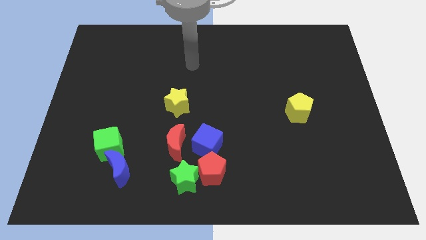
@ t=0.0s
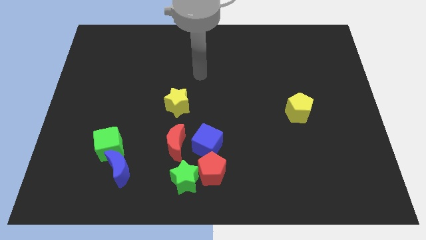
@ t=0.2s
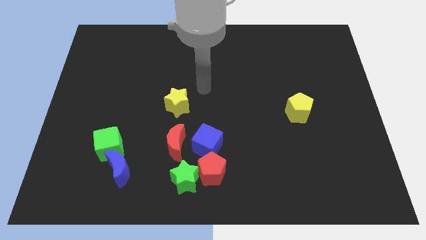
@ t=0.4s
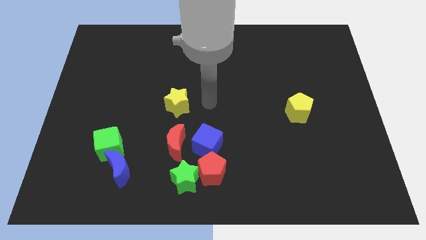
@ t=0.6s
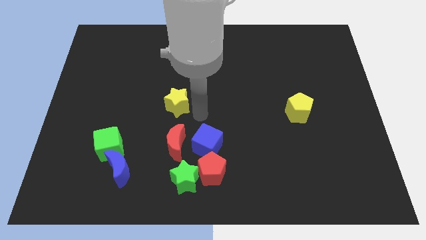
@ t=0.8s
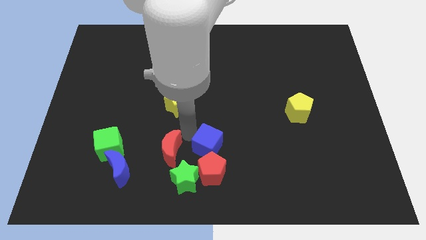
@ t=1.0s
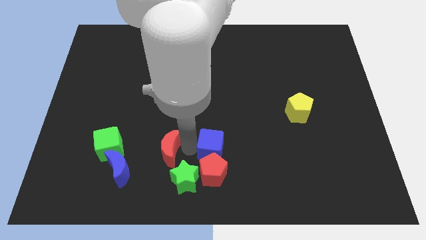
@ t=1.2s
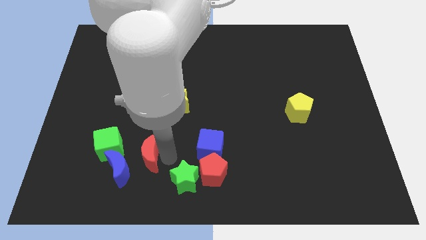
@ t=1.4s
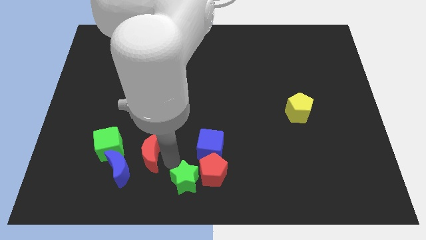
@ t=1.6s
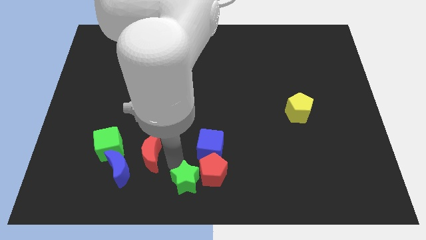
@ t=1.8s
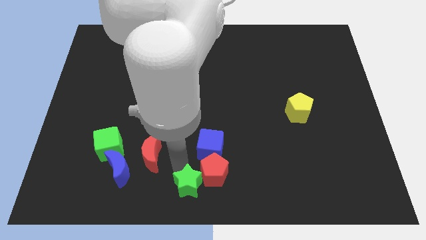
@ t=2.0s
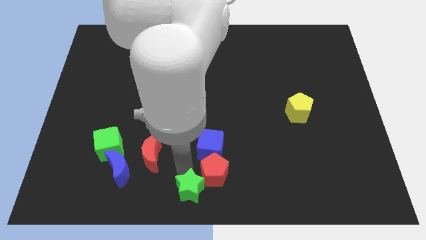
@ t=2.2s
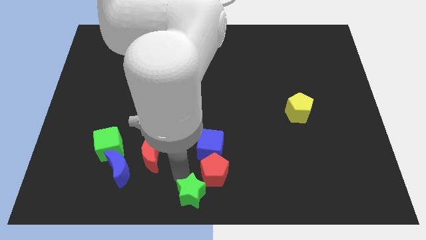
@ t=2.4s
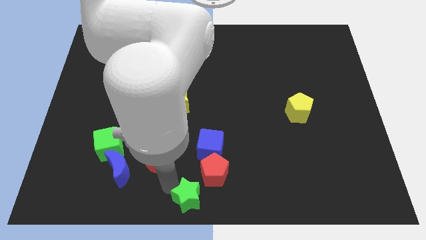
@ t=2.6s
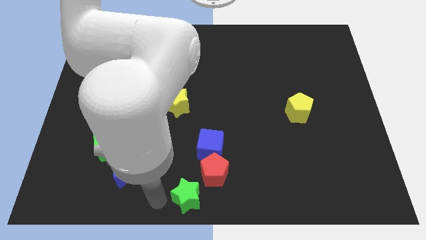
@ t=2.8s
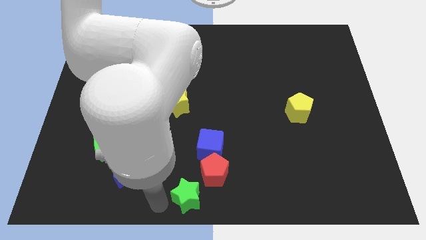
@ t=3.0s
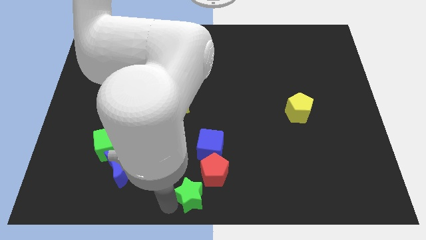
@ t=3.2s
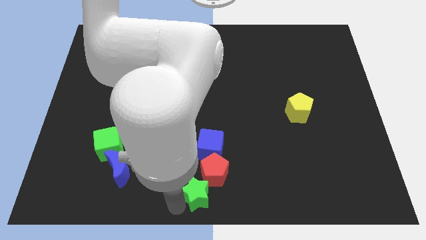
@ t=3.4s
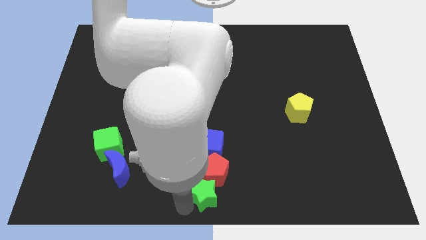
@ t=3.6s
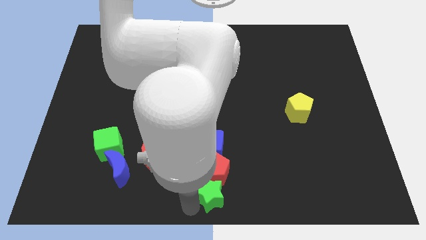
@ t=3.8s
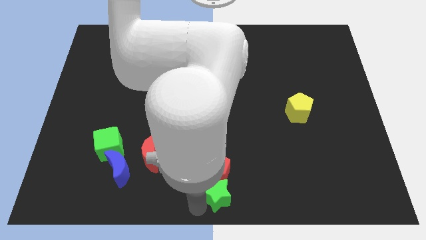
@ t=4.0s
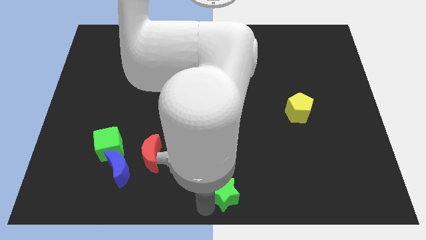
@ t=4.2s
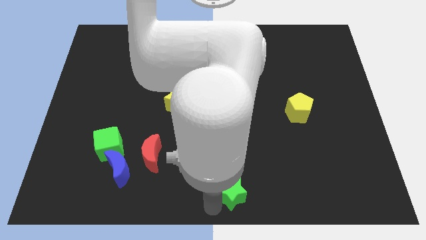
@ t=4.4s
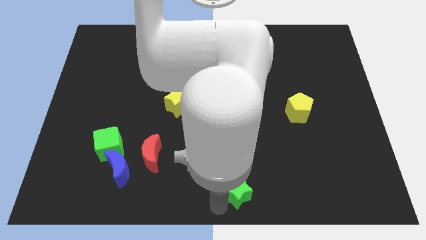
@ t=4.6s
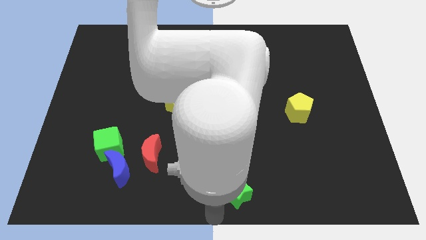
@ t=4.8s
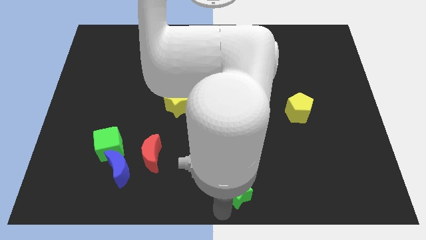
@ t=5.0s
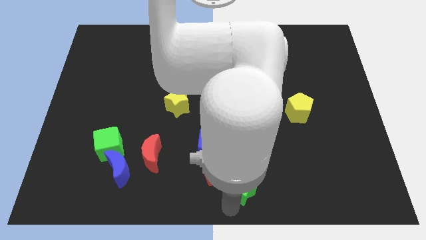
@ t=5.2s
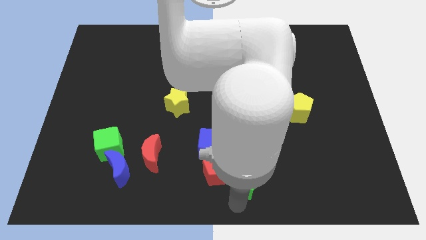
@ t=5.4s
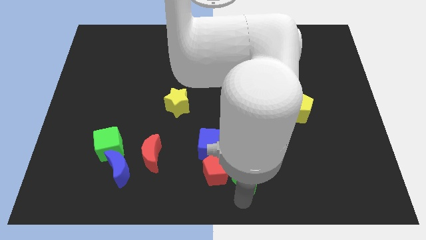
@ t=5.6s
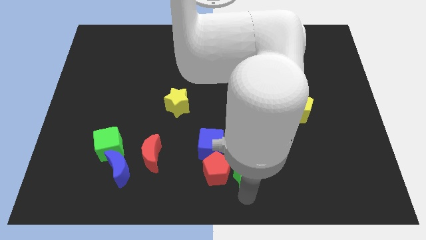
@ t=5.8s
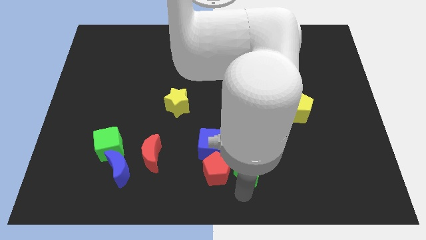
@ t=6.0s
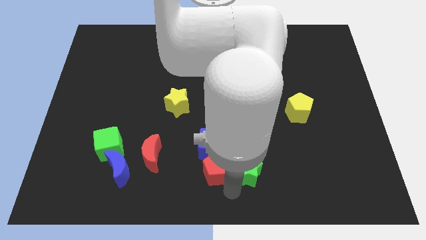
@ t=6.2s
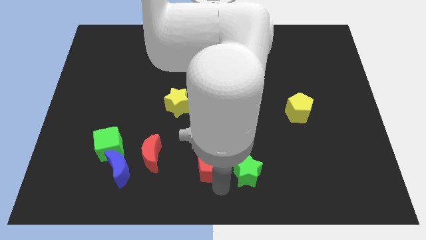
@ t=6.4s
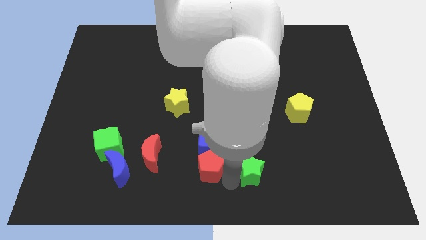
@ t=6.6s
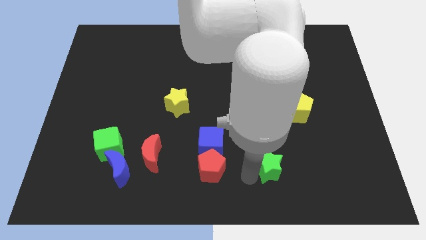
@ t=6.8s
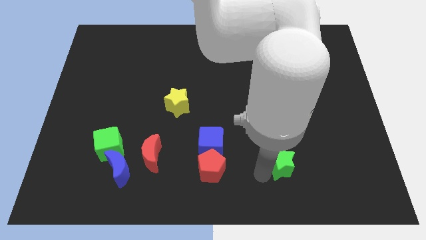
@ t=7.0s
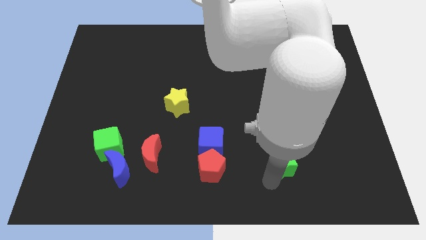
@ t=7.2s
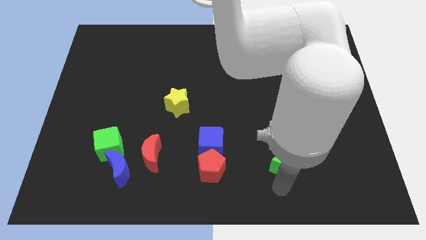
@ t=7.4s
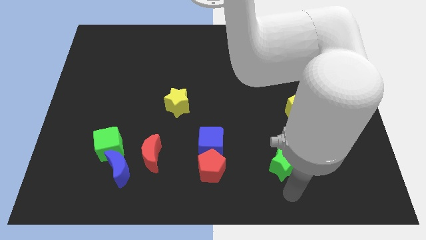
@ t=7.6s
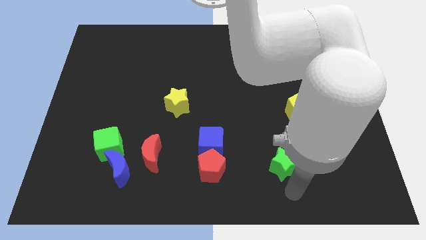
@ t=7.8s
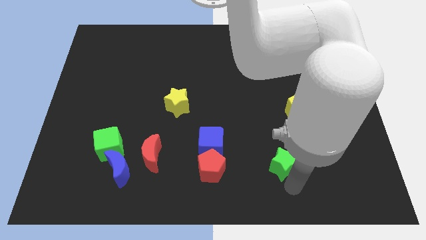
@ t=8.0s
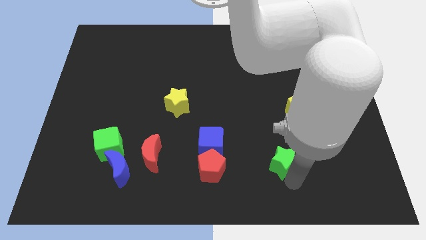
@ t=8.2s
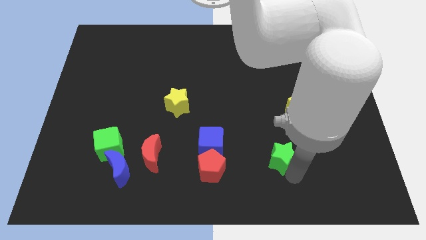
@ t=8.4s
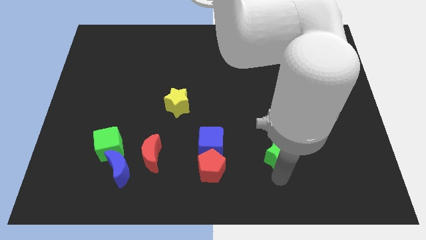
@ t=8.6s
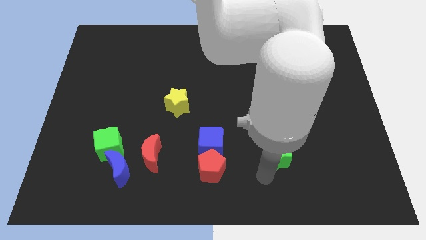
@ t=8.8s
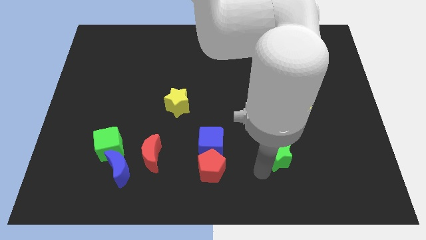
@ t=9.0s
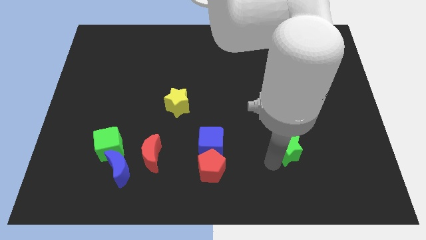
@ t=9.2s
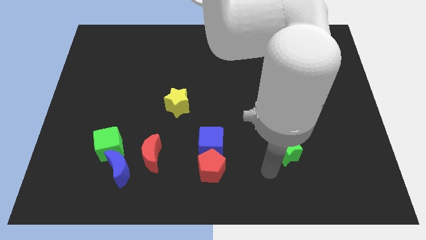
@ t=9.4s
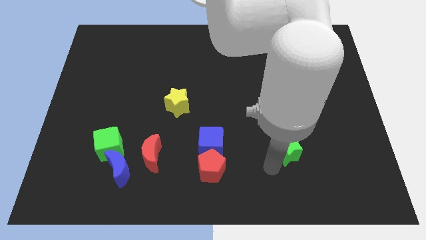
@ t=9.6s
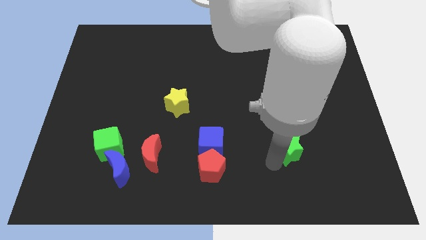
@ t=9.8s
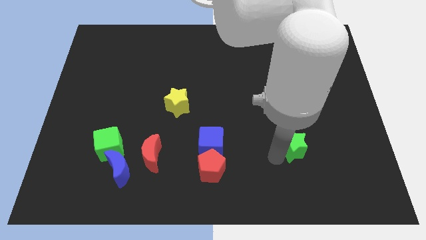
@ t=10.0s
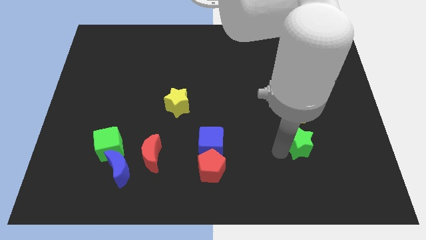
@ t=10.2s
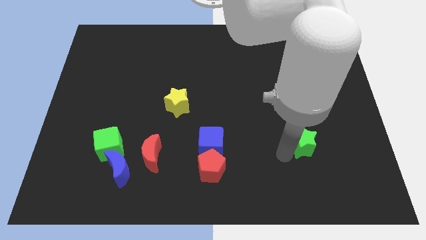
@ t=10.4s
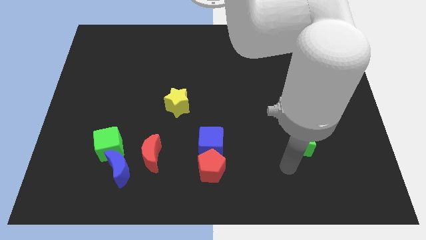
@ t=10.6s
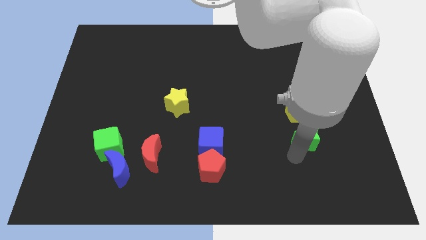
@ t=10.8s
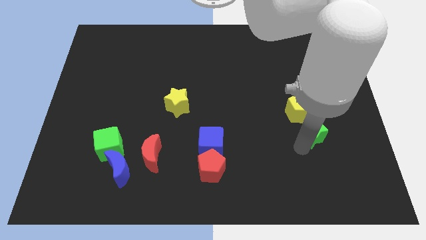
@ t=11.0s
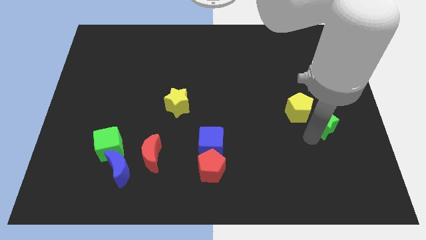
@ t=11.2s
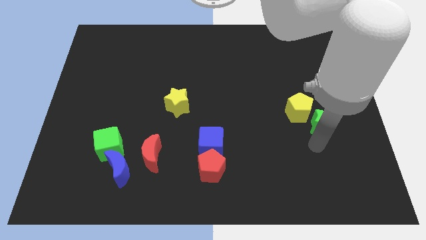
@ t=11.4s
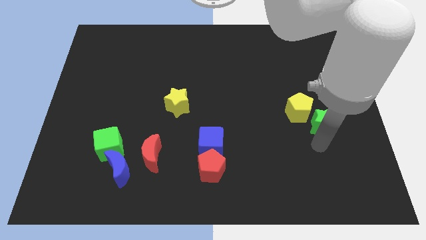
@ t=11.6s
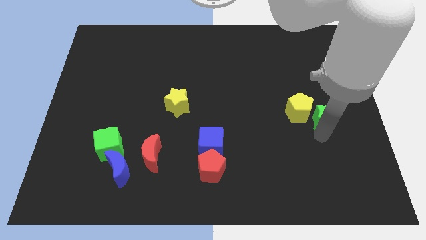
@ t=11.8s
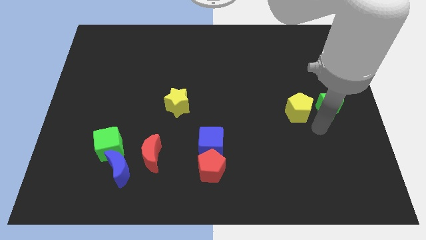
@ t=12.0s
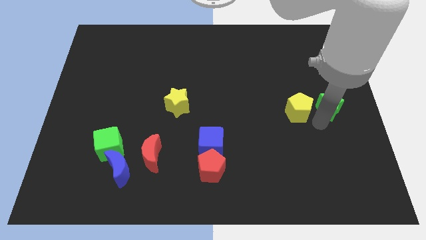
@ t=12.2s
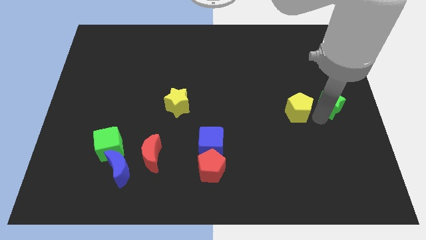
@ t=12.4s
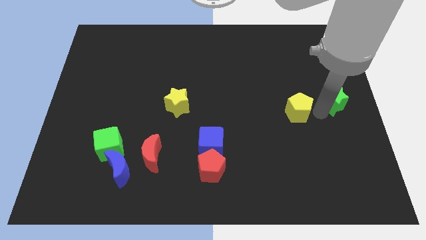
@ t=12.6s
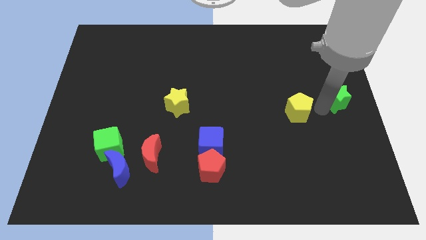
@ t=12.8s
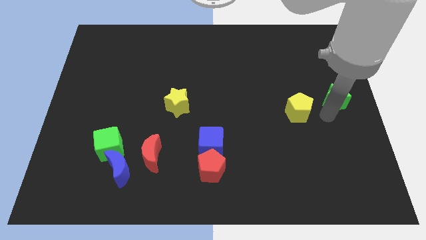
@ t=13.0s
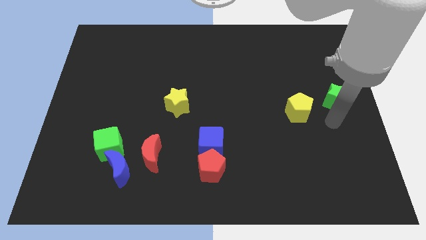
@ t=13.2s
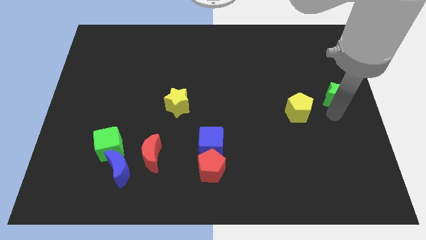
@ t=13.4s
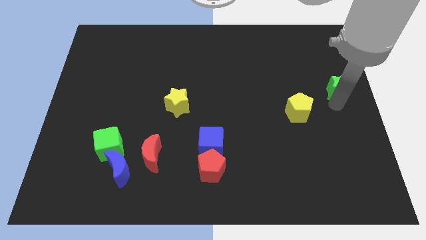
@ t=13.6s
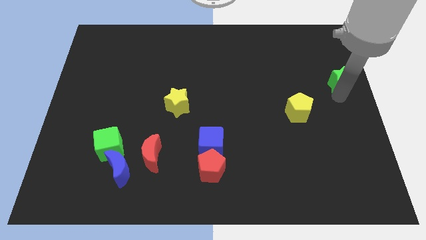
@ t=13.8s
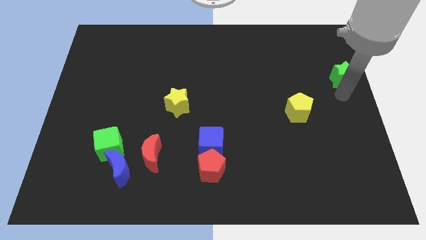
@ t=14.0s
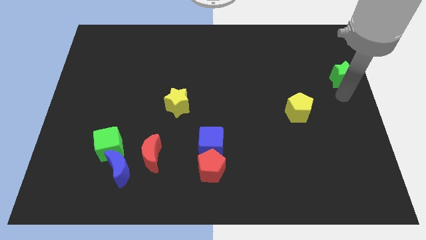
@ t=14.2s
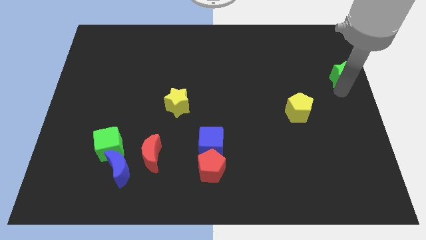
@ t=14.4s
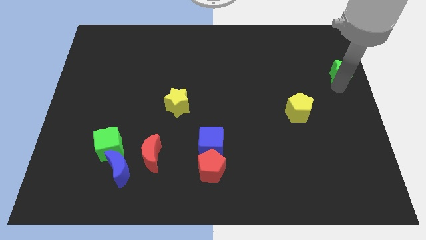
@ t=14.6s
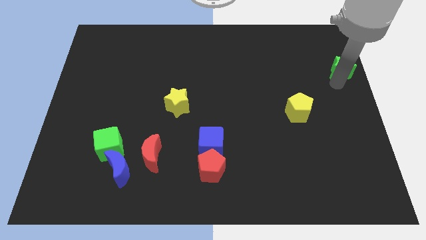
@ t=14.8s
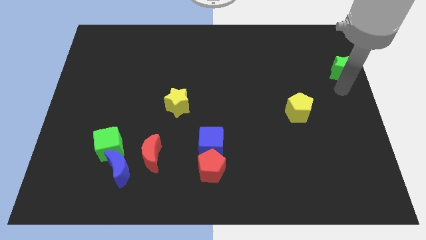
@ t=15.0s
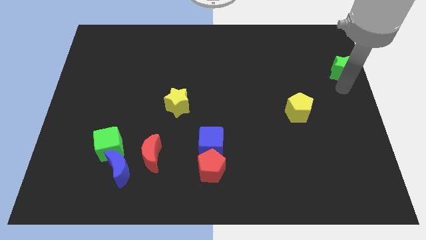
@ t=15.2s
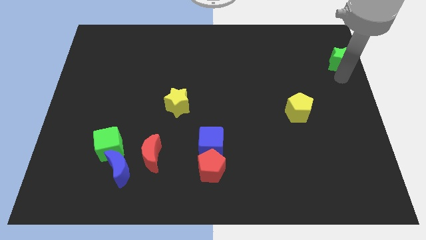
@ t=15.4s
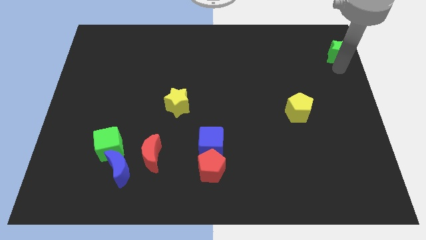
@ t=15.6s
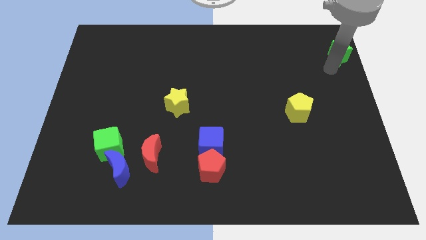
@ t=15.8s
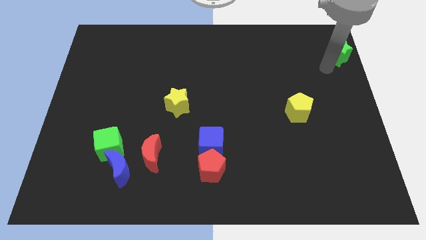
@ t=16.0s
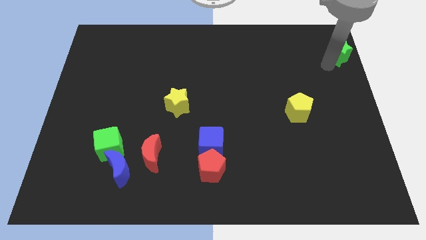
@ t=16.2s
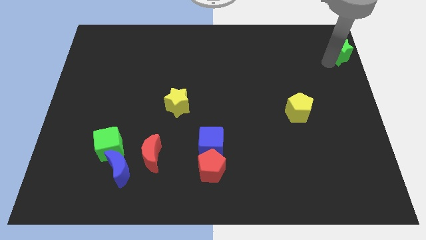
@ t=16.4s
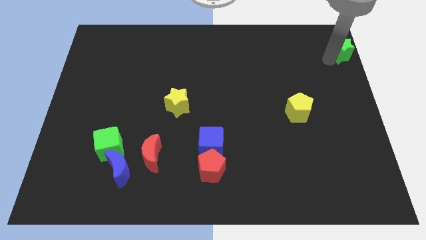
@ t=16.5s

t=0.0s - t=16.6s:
move the green star to the upper right corner
